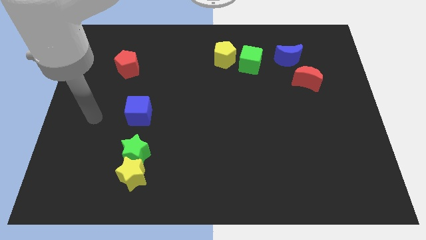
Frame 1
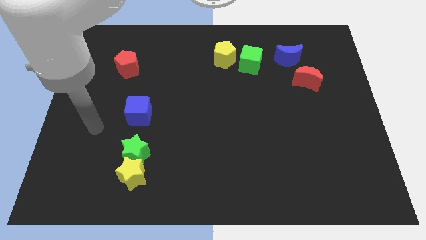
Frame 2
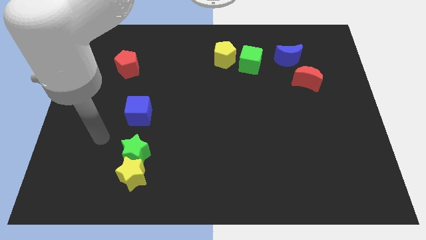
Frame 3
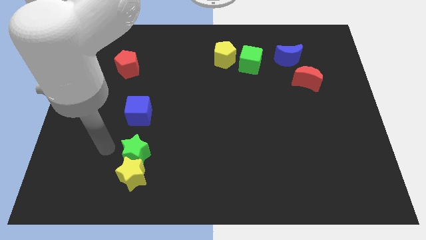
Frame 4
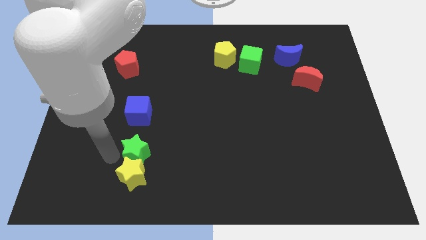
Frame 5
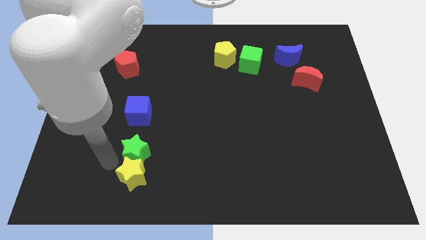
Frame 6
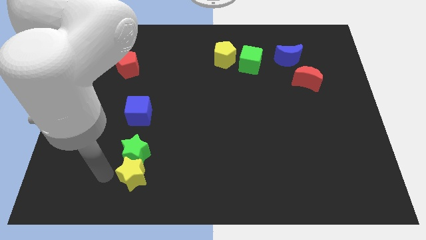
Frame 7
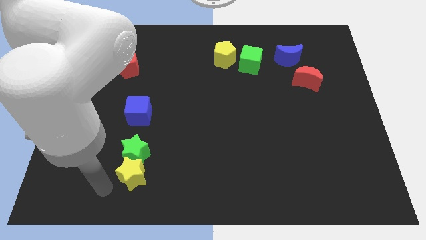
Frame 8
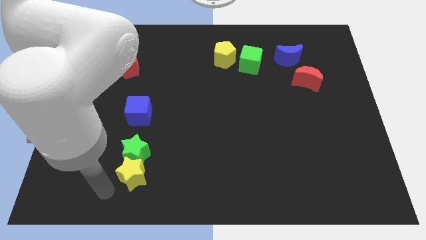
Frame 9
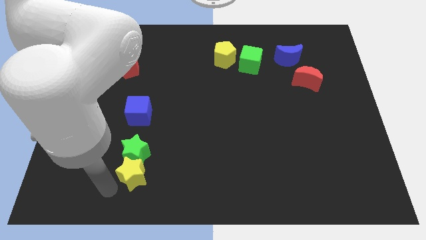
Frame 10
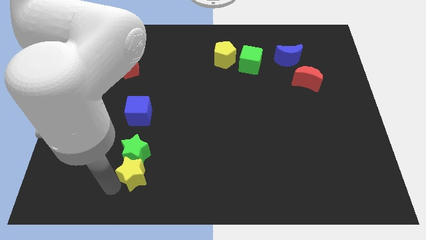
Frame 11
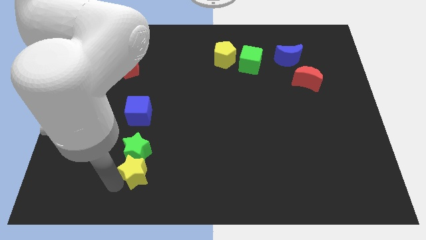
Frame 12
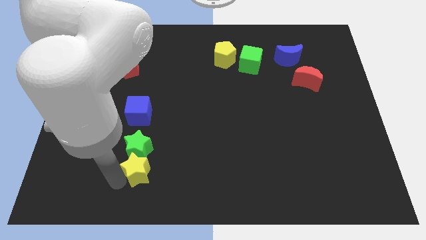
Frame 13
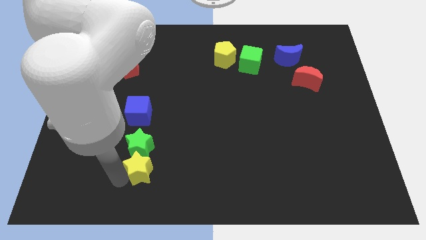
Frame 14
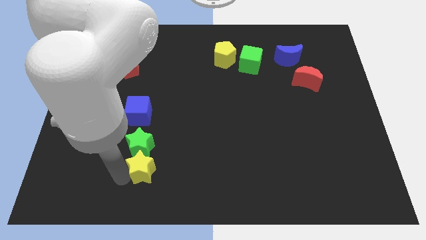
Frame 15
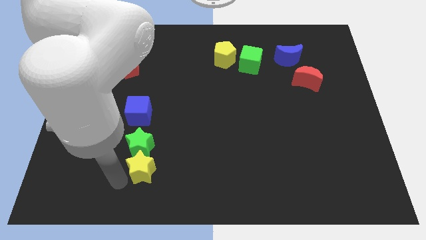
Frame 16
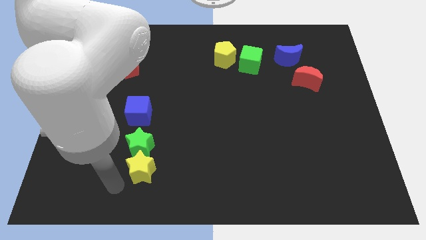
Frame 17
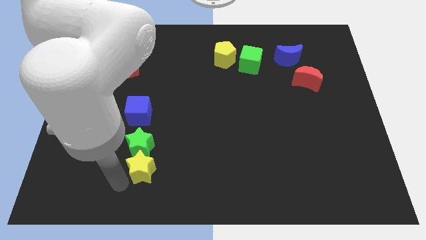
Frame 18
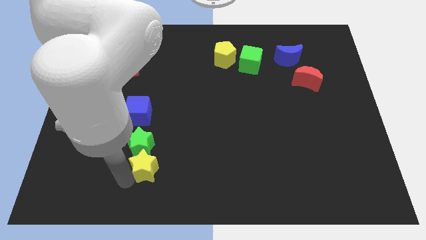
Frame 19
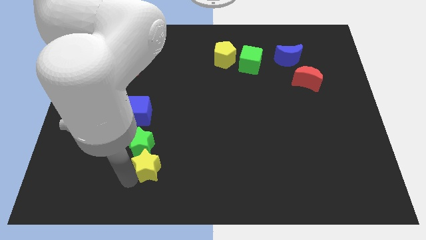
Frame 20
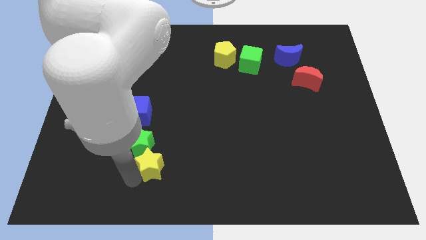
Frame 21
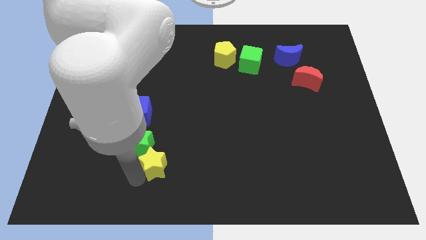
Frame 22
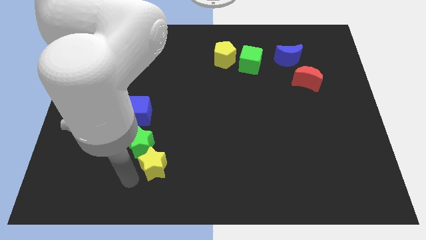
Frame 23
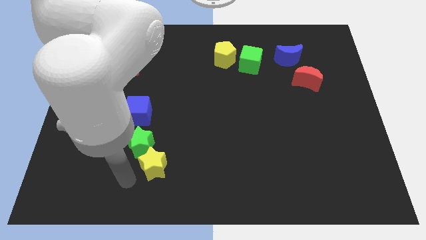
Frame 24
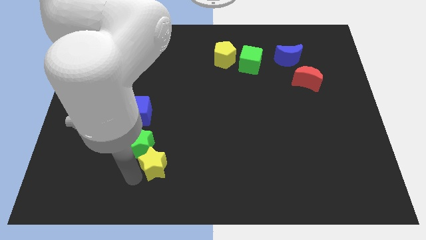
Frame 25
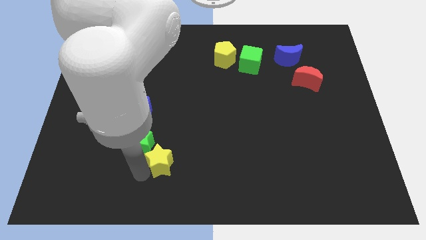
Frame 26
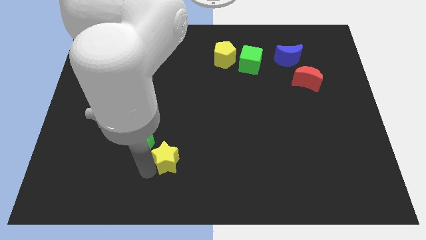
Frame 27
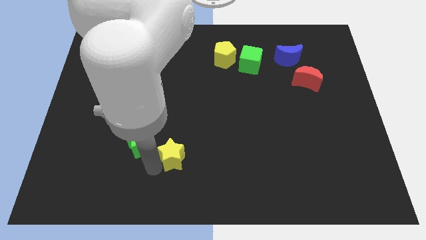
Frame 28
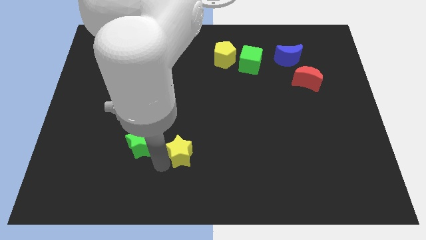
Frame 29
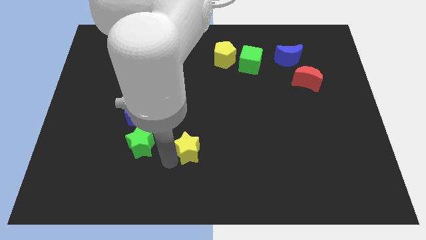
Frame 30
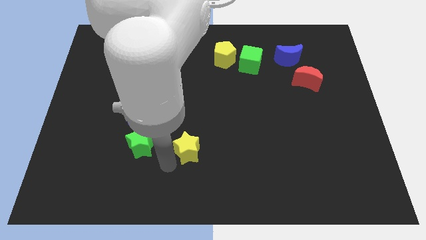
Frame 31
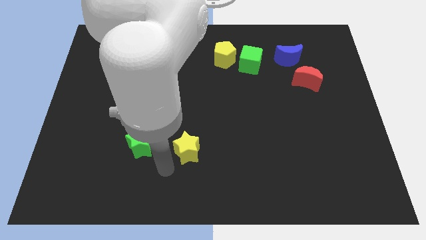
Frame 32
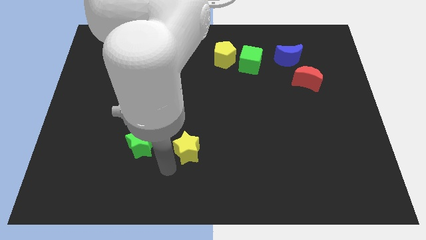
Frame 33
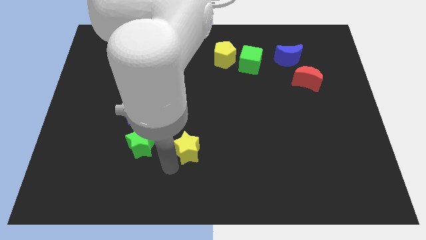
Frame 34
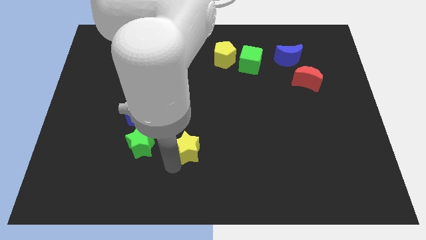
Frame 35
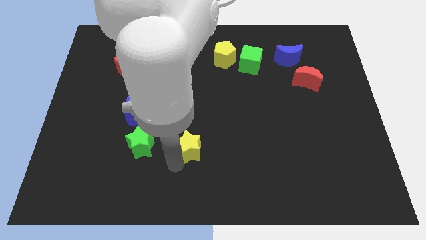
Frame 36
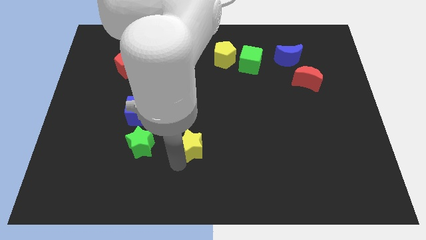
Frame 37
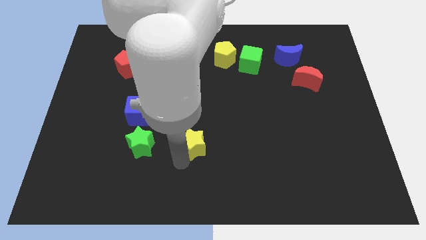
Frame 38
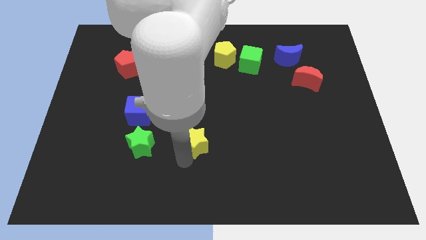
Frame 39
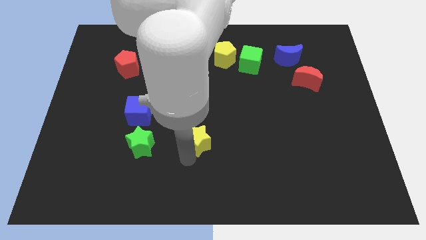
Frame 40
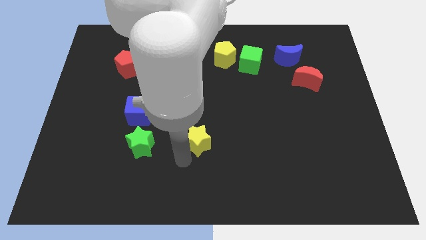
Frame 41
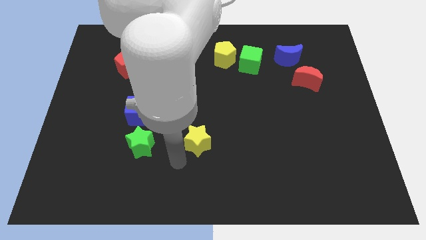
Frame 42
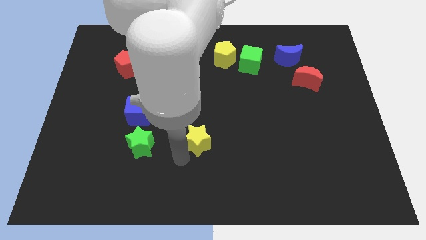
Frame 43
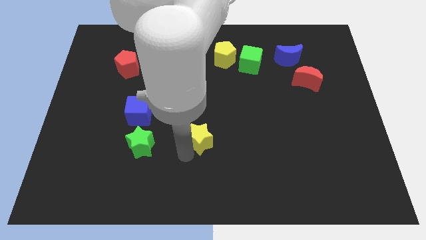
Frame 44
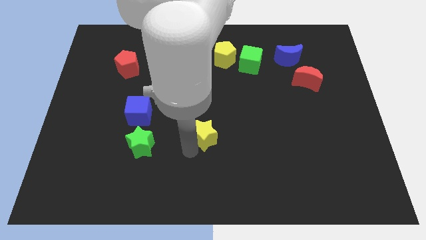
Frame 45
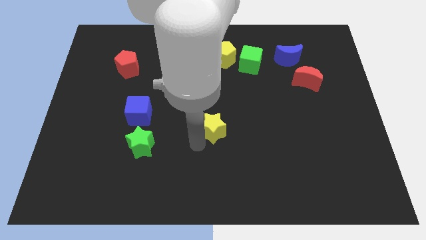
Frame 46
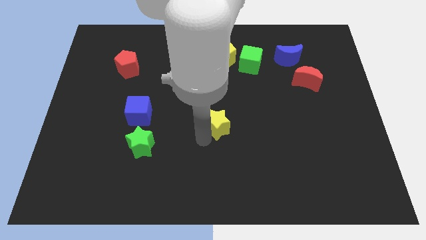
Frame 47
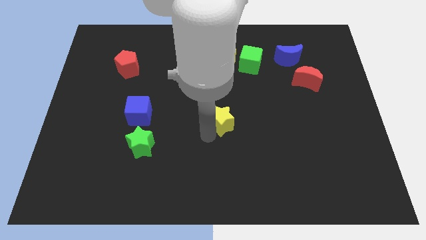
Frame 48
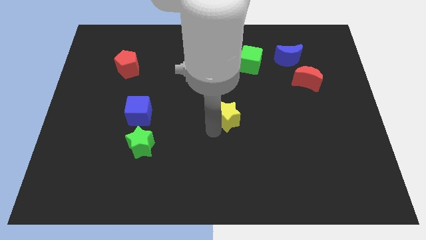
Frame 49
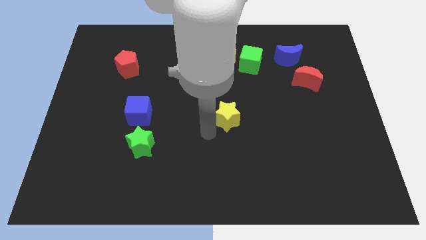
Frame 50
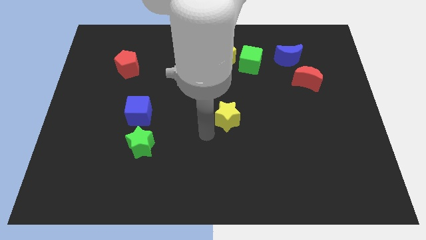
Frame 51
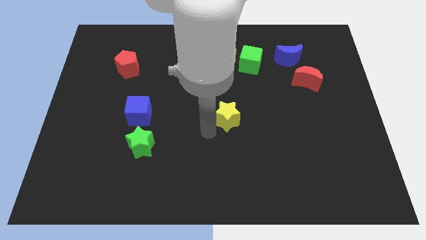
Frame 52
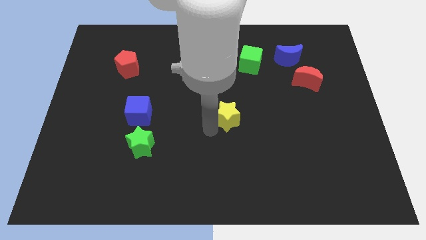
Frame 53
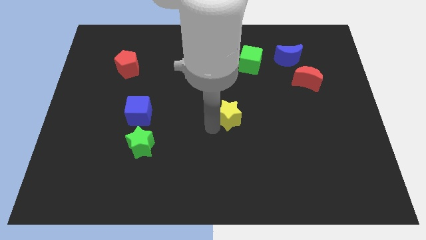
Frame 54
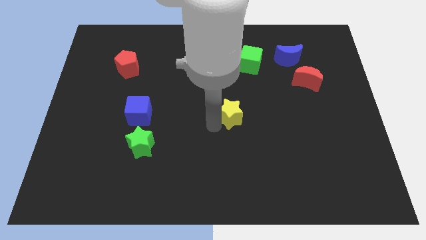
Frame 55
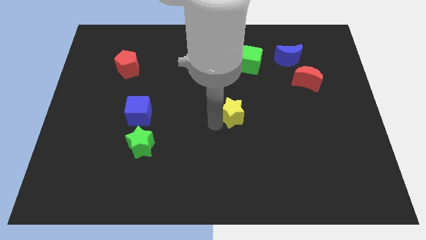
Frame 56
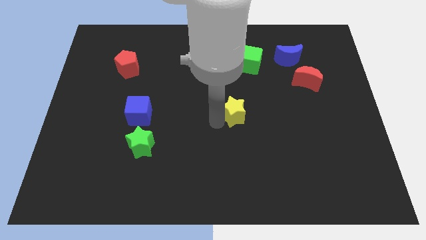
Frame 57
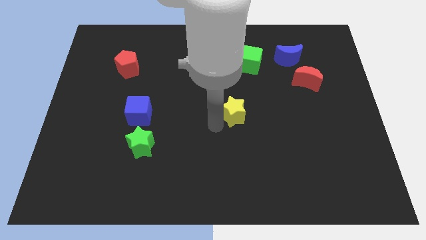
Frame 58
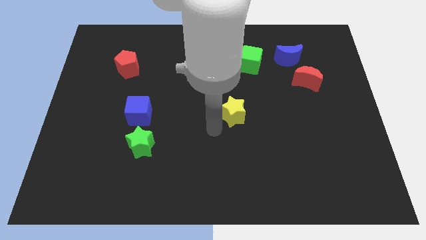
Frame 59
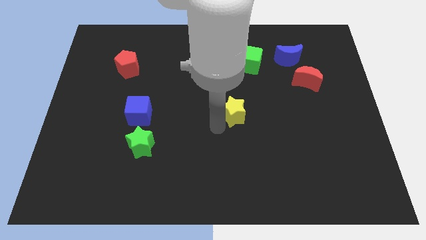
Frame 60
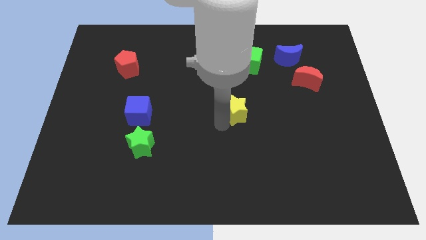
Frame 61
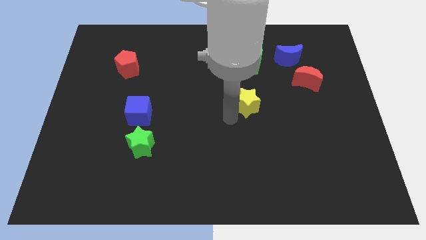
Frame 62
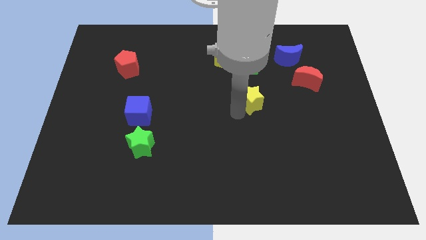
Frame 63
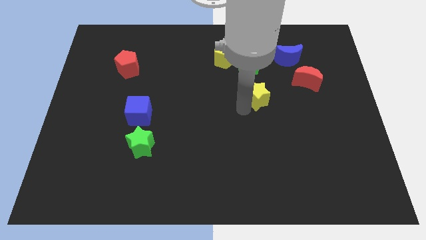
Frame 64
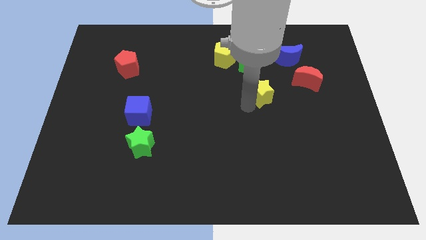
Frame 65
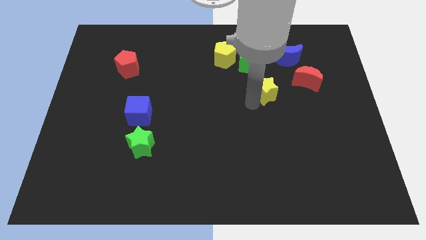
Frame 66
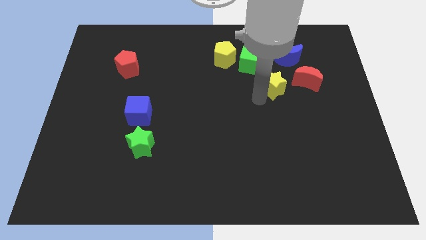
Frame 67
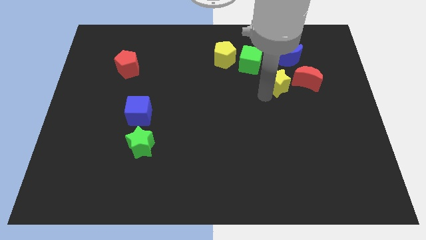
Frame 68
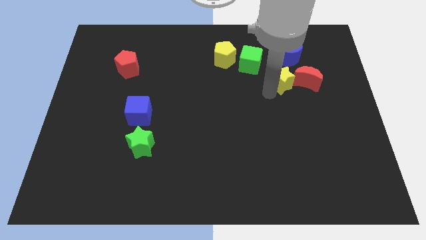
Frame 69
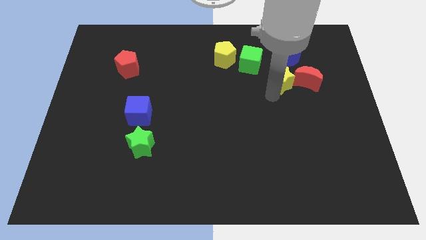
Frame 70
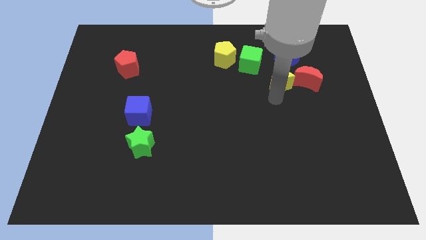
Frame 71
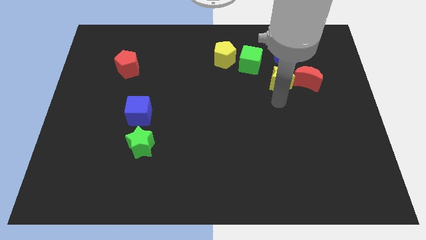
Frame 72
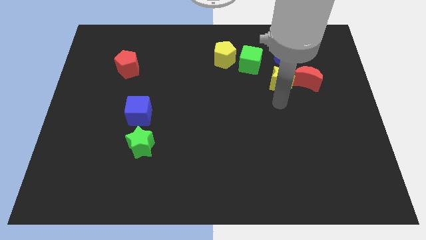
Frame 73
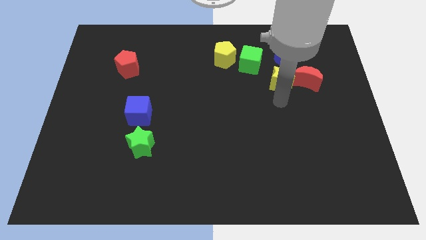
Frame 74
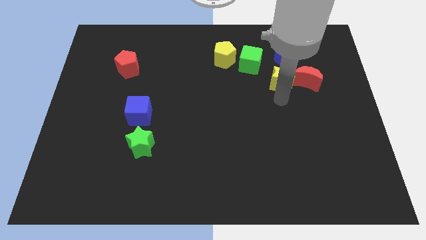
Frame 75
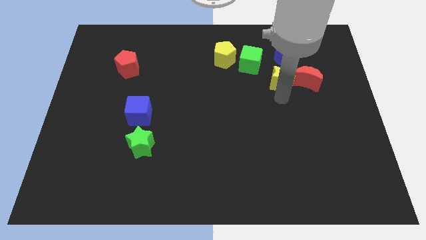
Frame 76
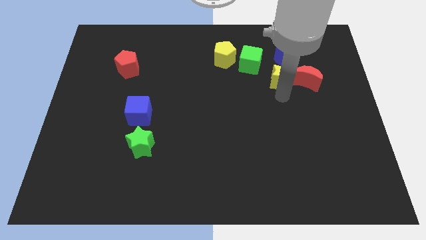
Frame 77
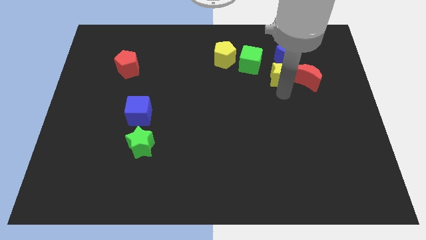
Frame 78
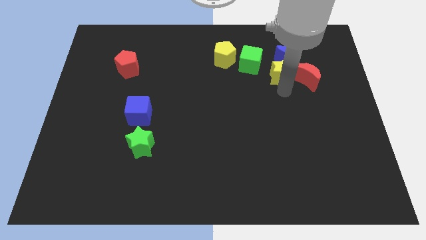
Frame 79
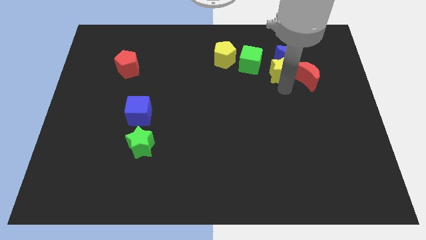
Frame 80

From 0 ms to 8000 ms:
slide the yellow star to the blue moon
